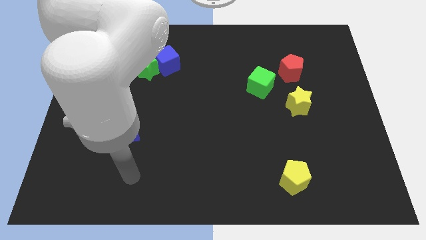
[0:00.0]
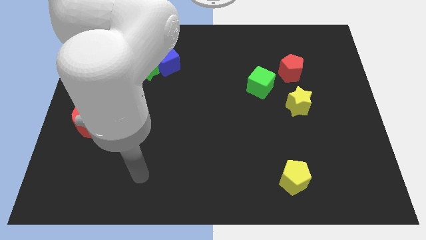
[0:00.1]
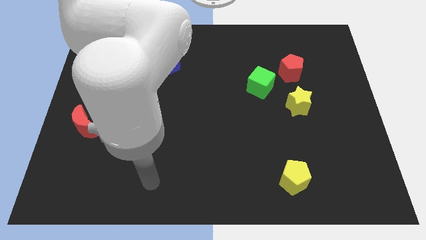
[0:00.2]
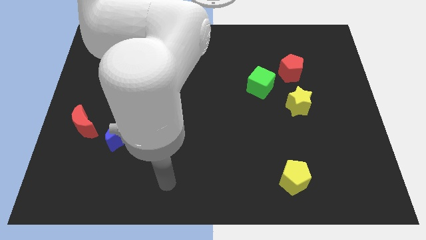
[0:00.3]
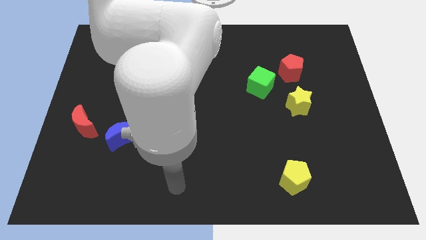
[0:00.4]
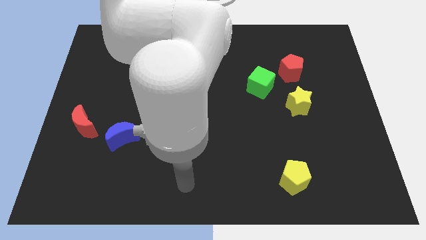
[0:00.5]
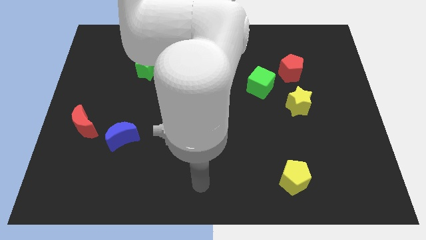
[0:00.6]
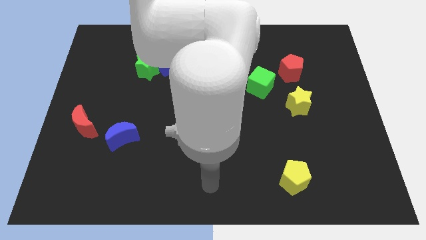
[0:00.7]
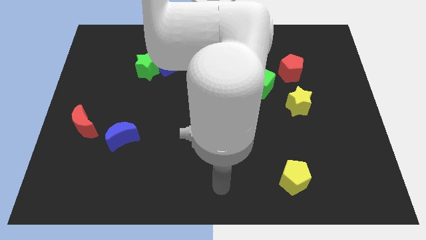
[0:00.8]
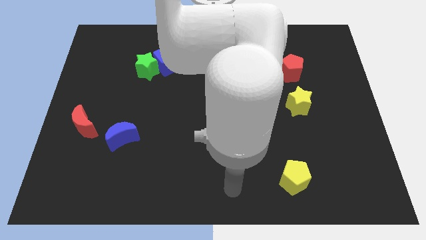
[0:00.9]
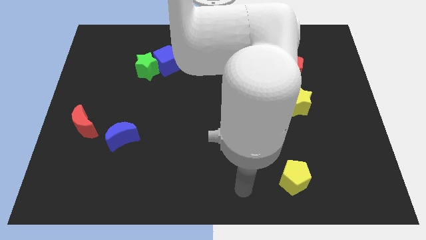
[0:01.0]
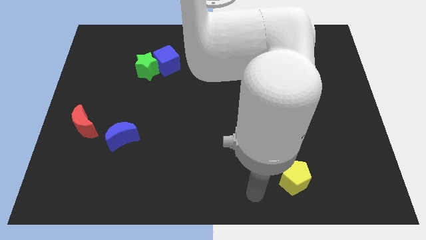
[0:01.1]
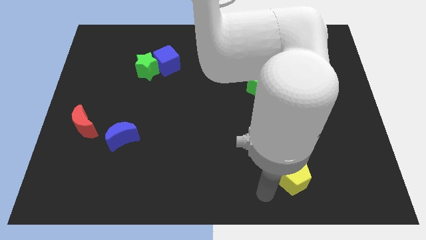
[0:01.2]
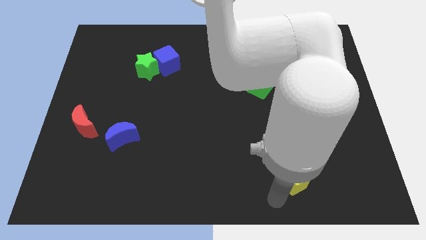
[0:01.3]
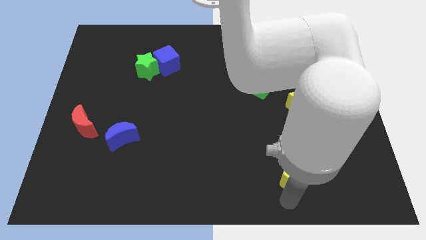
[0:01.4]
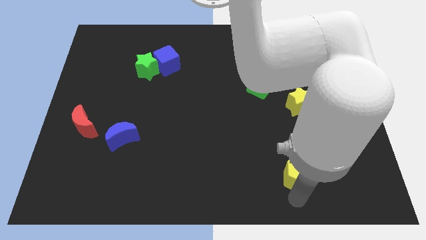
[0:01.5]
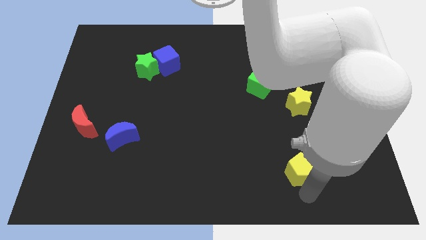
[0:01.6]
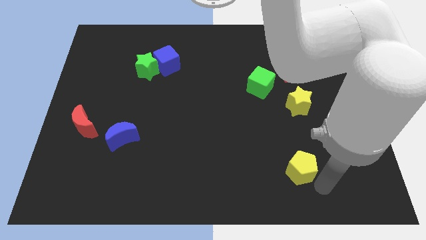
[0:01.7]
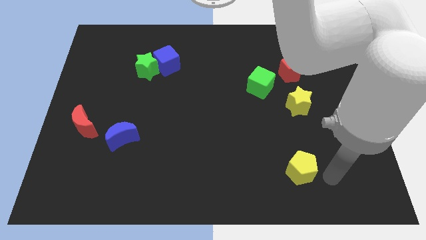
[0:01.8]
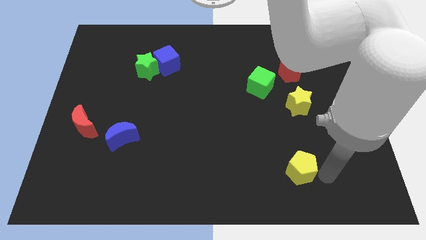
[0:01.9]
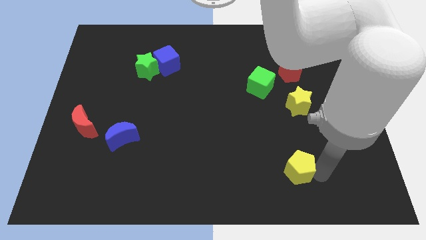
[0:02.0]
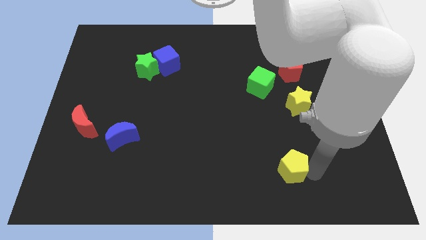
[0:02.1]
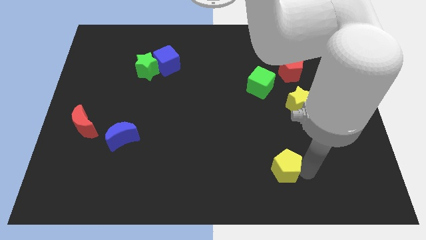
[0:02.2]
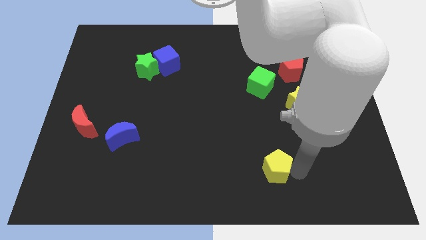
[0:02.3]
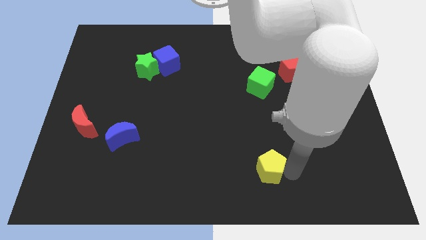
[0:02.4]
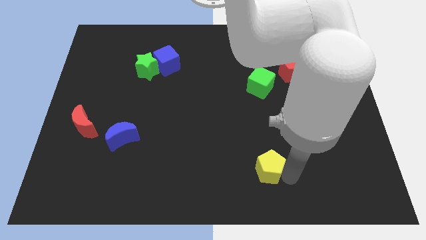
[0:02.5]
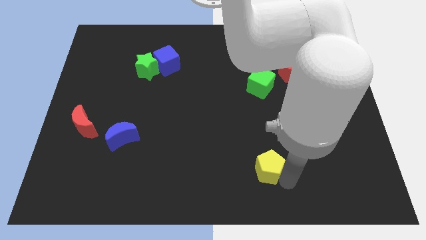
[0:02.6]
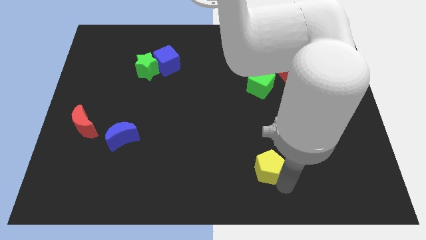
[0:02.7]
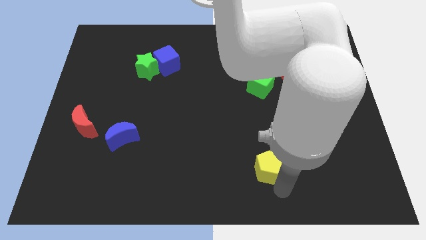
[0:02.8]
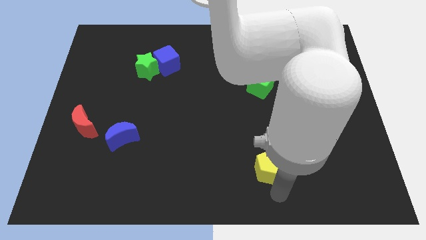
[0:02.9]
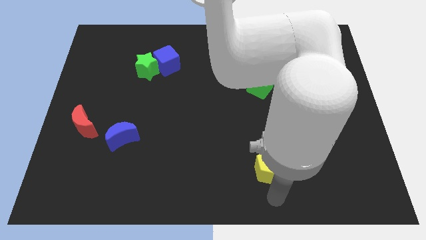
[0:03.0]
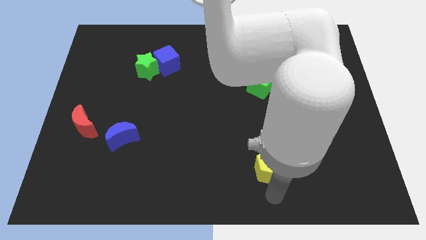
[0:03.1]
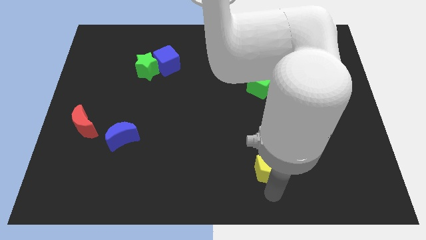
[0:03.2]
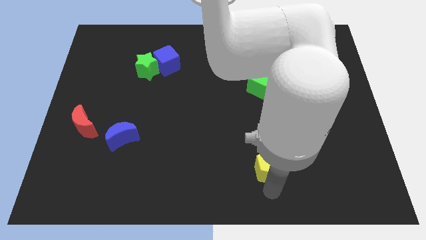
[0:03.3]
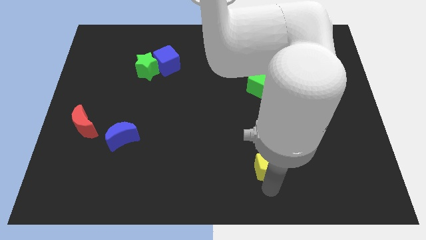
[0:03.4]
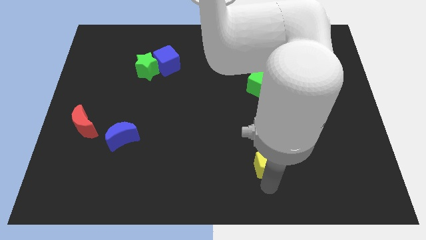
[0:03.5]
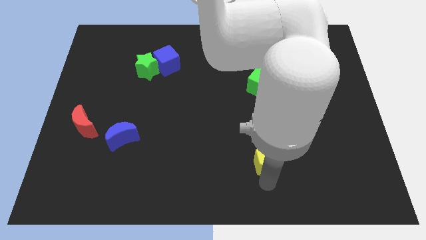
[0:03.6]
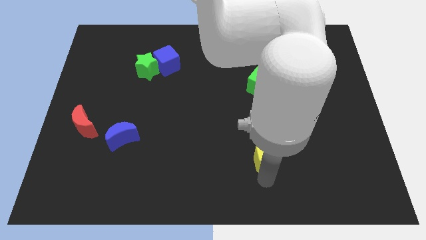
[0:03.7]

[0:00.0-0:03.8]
slightly push the yellow pentagon up and left

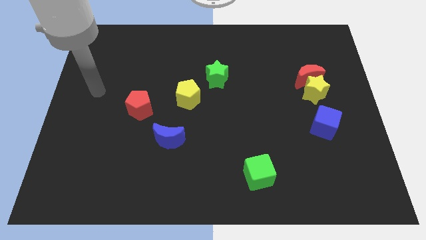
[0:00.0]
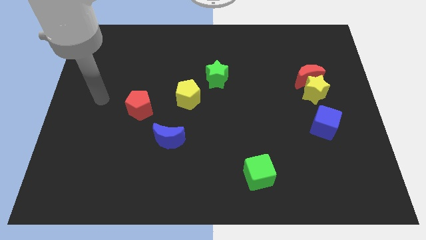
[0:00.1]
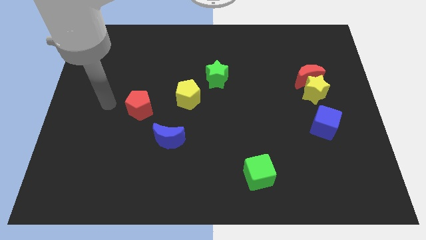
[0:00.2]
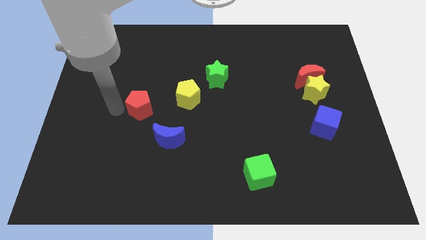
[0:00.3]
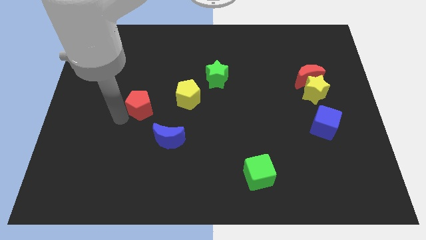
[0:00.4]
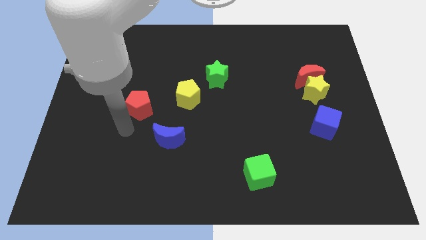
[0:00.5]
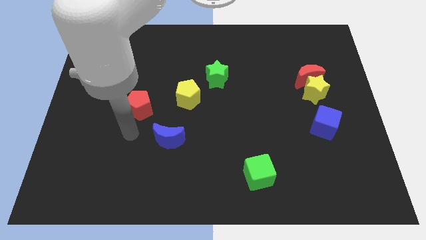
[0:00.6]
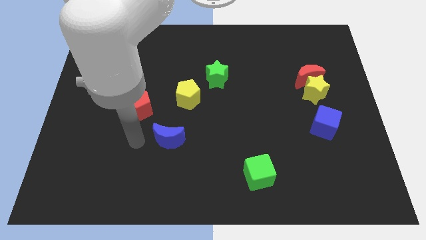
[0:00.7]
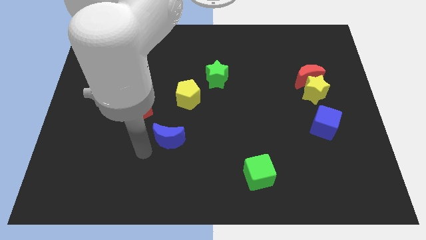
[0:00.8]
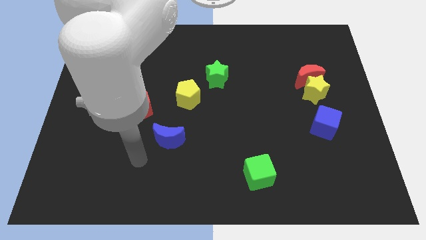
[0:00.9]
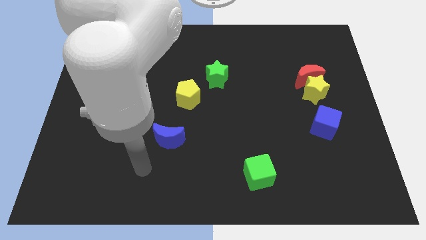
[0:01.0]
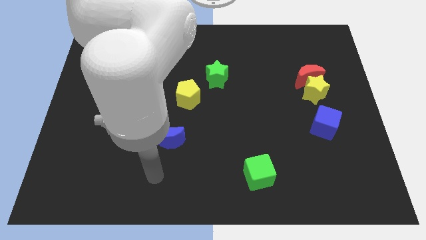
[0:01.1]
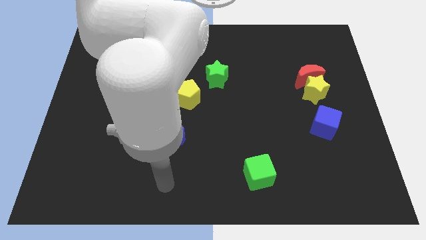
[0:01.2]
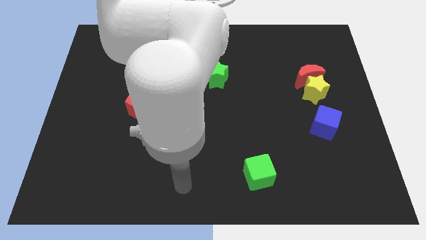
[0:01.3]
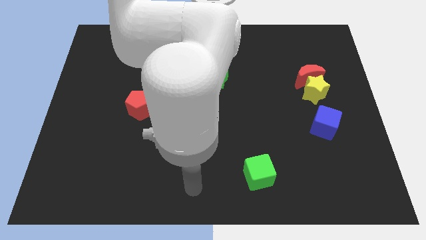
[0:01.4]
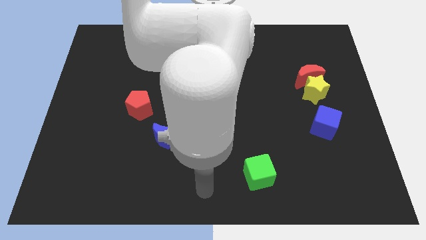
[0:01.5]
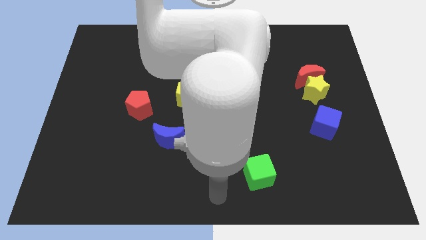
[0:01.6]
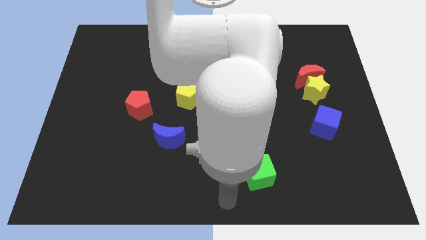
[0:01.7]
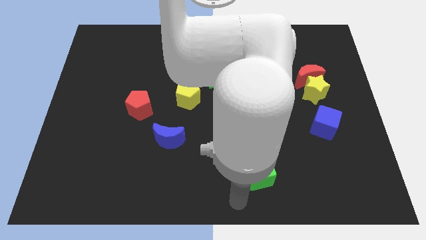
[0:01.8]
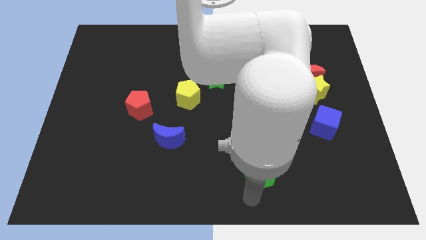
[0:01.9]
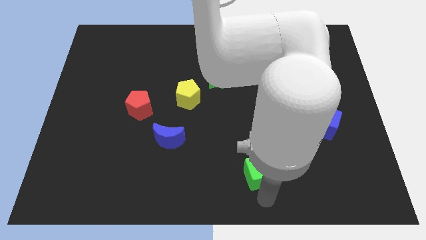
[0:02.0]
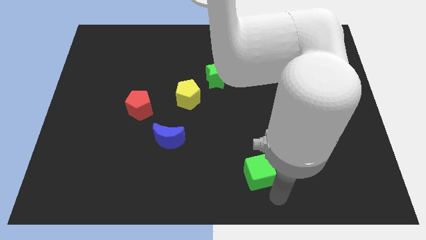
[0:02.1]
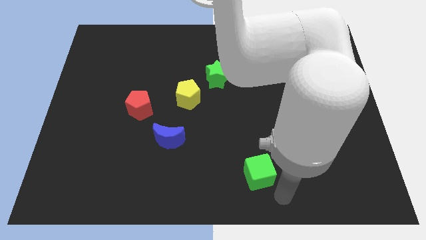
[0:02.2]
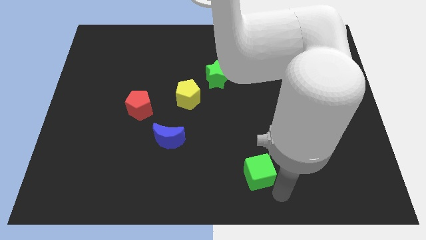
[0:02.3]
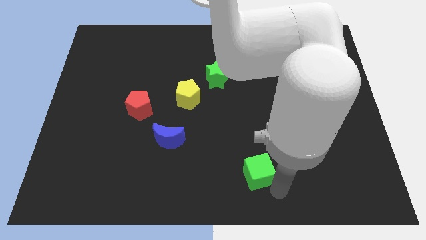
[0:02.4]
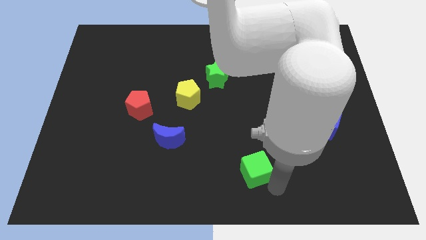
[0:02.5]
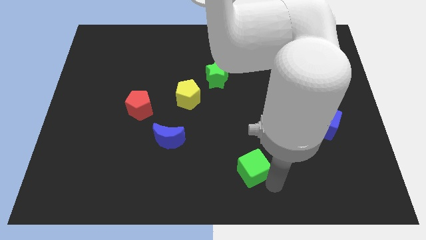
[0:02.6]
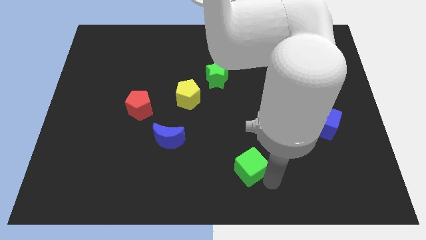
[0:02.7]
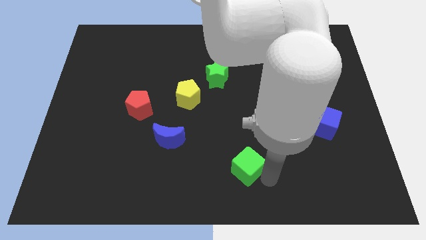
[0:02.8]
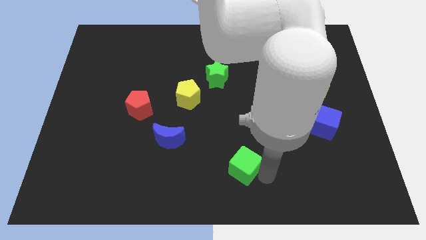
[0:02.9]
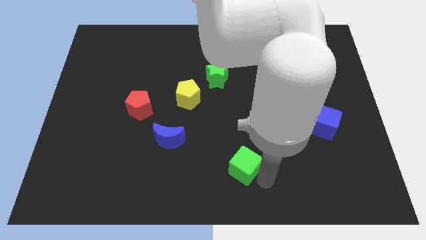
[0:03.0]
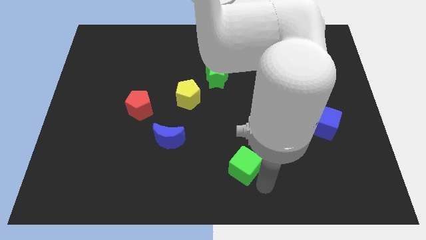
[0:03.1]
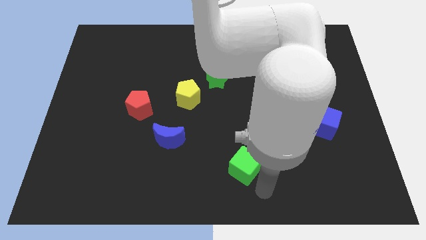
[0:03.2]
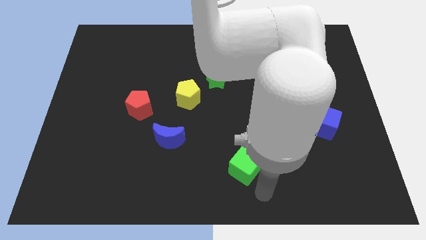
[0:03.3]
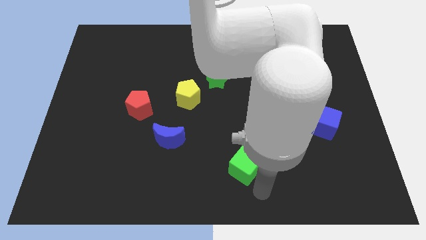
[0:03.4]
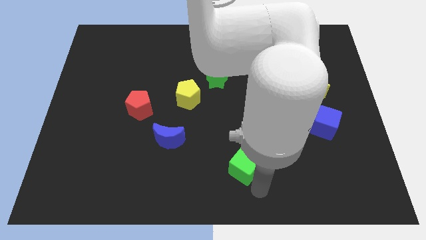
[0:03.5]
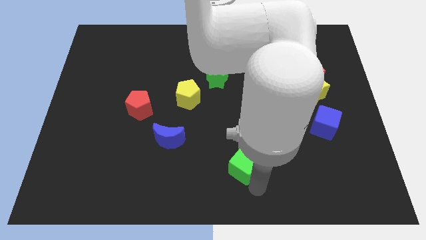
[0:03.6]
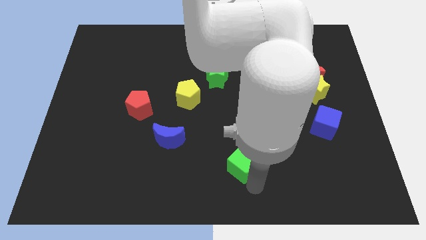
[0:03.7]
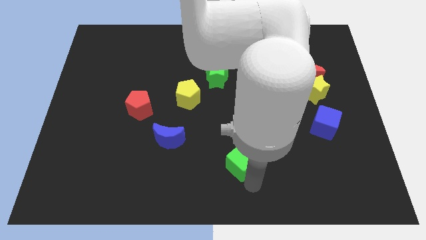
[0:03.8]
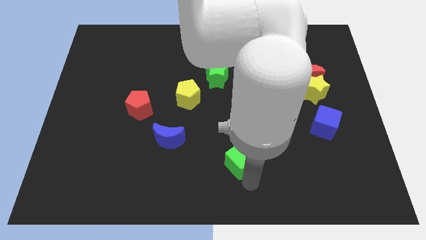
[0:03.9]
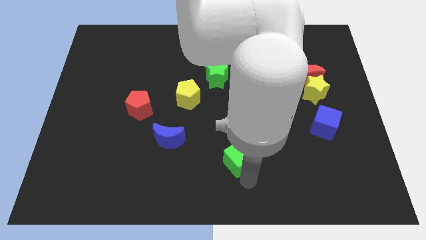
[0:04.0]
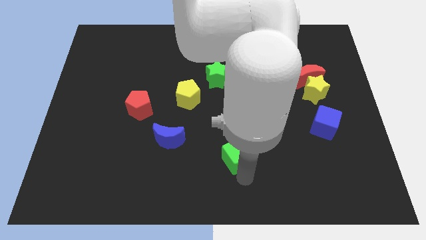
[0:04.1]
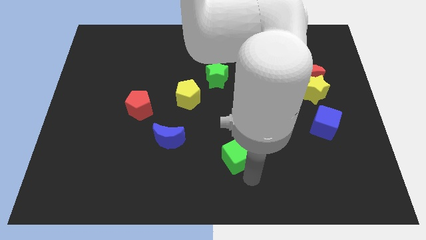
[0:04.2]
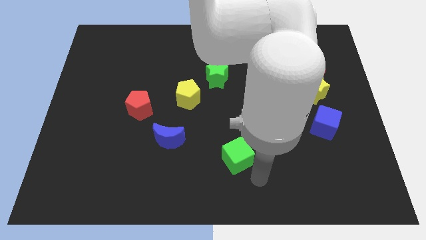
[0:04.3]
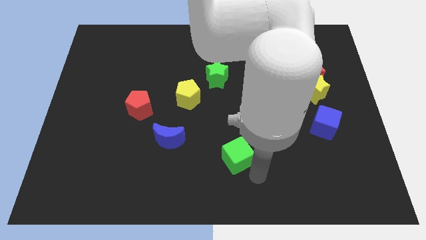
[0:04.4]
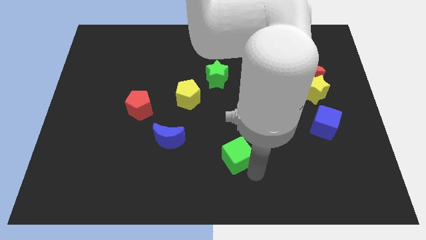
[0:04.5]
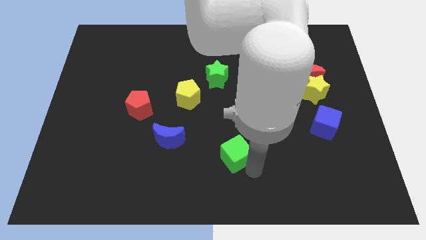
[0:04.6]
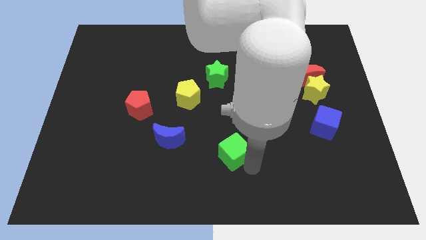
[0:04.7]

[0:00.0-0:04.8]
slightly move the green cube diagonally up and left
